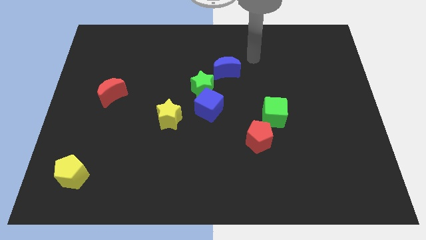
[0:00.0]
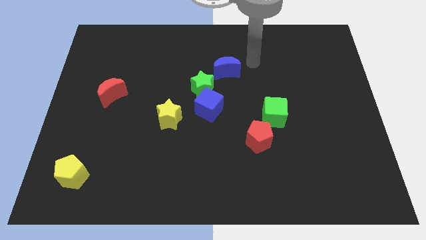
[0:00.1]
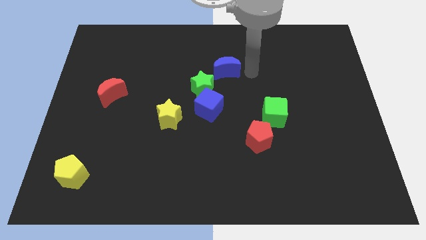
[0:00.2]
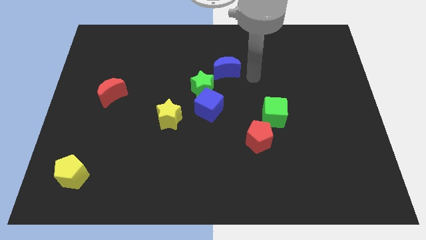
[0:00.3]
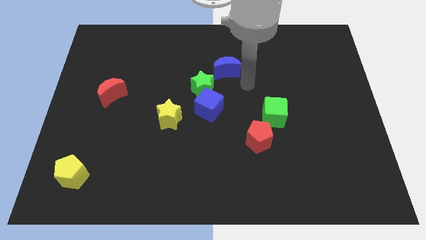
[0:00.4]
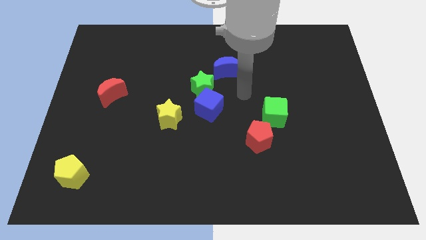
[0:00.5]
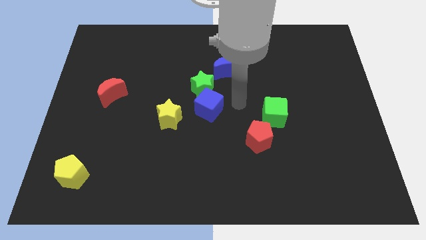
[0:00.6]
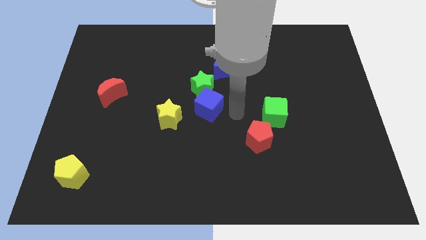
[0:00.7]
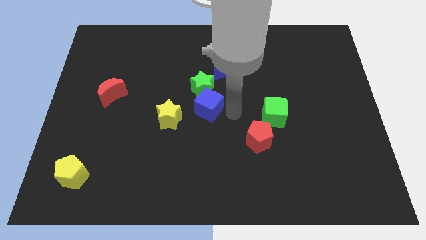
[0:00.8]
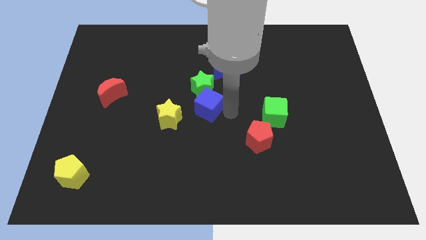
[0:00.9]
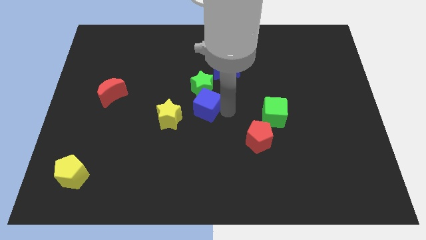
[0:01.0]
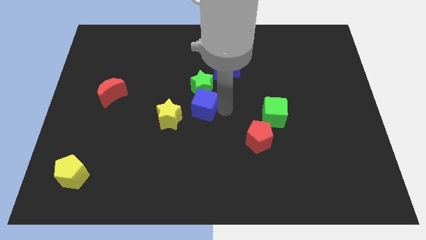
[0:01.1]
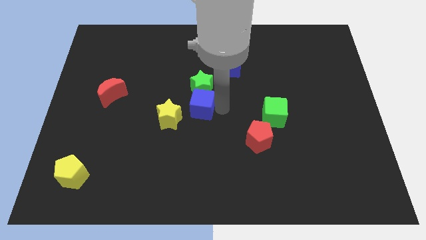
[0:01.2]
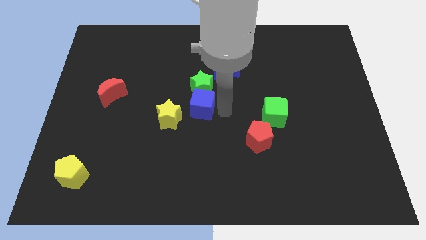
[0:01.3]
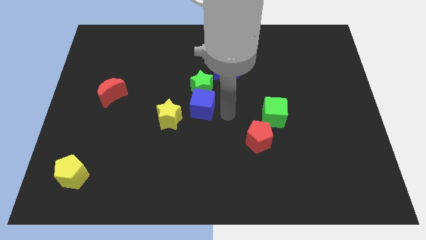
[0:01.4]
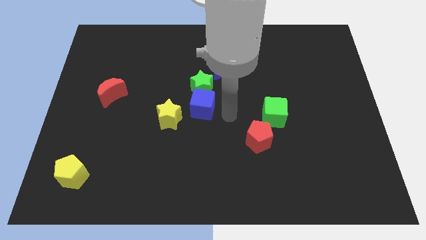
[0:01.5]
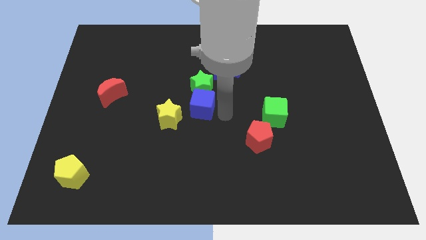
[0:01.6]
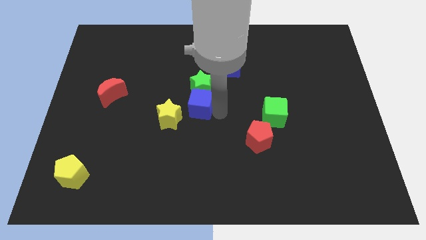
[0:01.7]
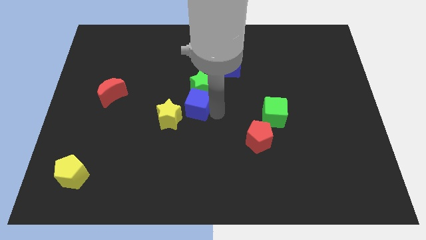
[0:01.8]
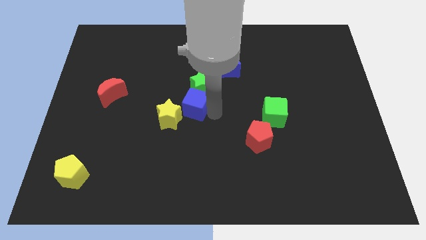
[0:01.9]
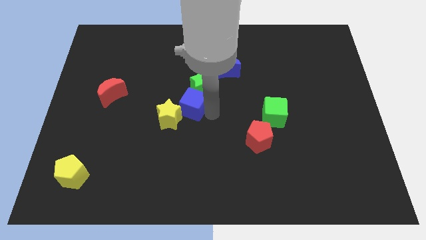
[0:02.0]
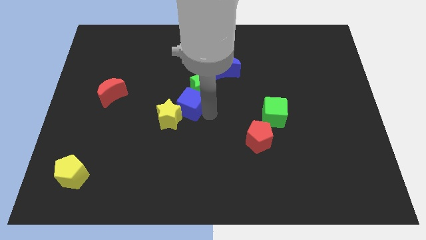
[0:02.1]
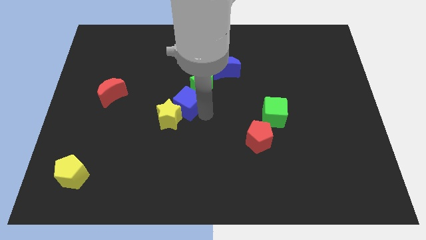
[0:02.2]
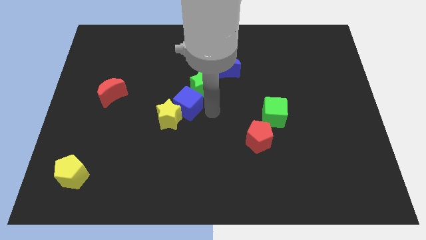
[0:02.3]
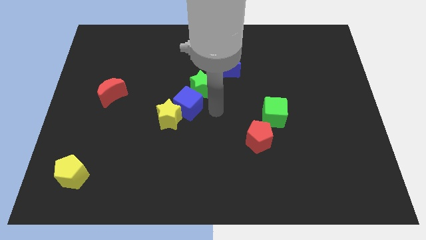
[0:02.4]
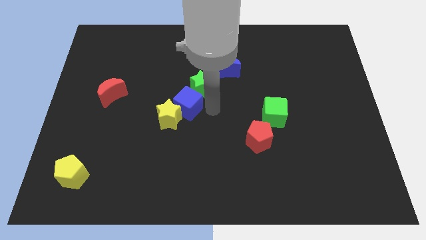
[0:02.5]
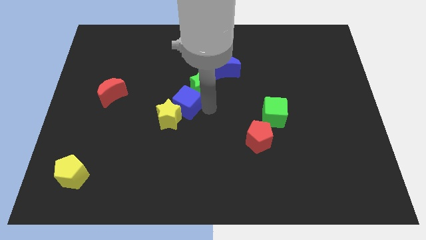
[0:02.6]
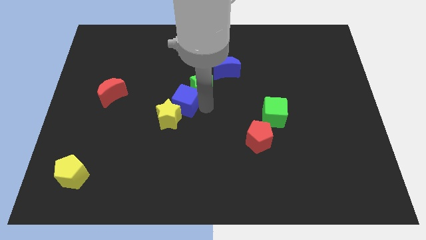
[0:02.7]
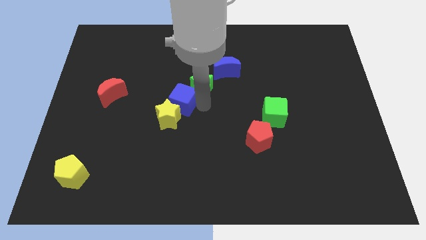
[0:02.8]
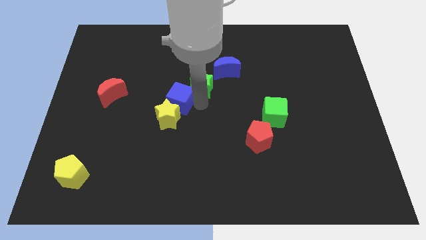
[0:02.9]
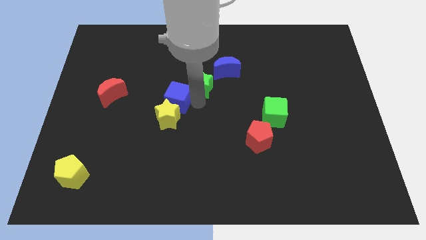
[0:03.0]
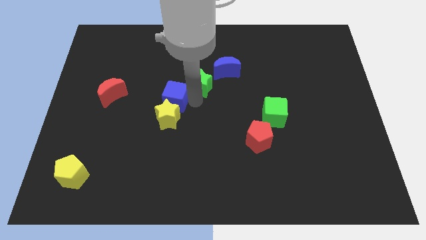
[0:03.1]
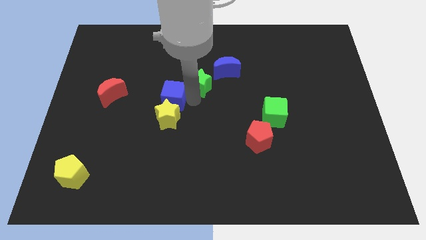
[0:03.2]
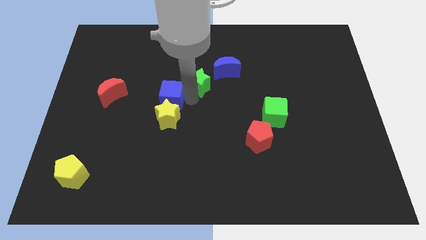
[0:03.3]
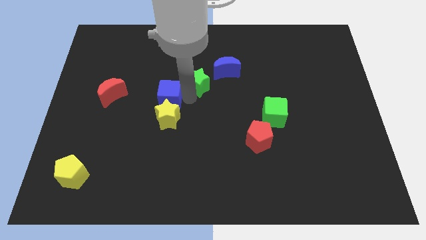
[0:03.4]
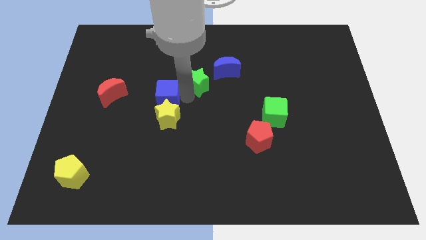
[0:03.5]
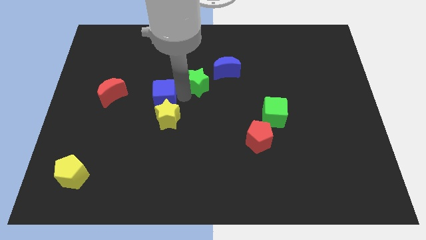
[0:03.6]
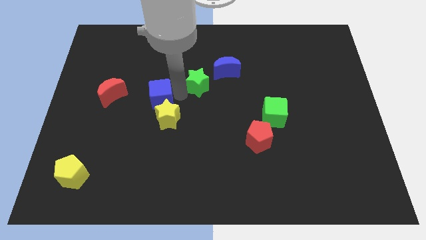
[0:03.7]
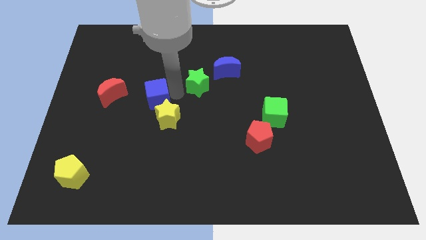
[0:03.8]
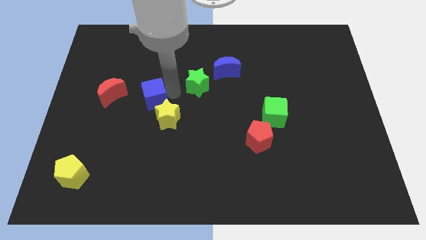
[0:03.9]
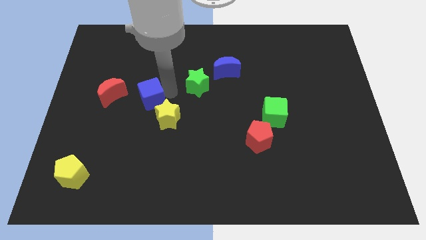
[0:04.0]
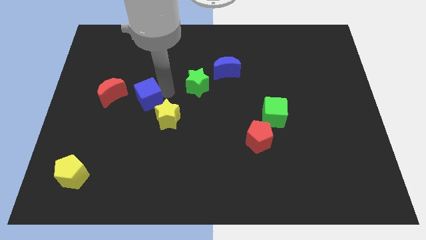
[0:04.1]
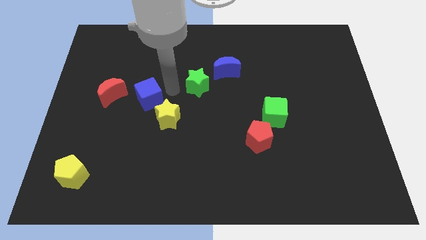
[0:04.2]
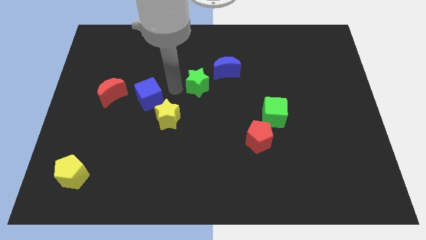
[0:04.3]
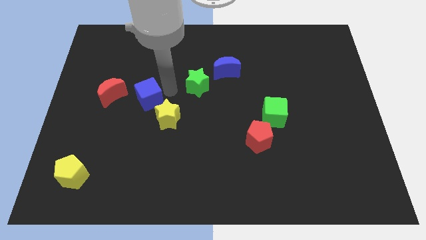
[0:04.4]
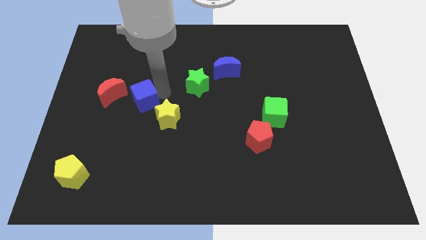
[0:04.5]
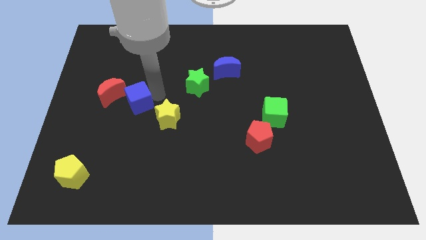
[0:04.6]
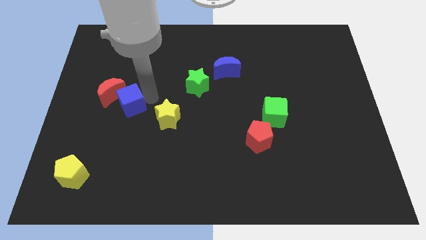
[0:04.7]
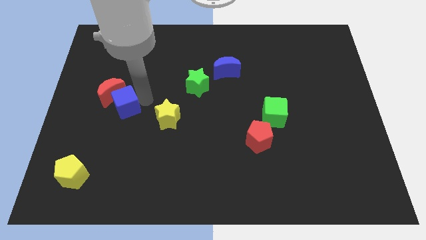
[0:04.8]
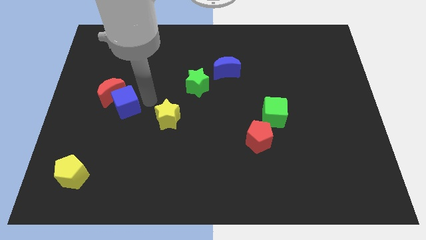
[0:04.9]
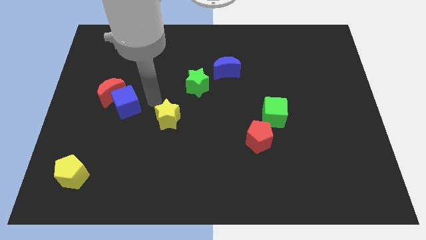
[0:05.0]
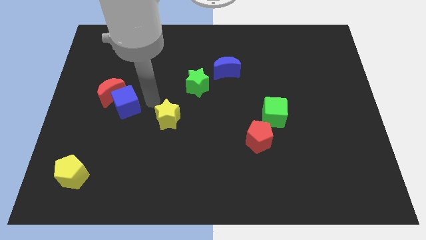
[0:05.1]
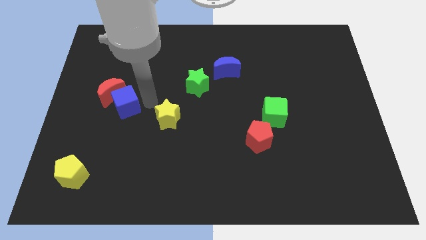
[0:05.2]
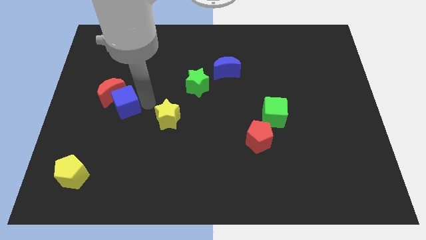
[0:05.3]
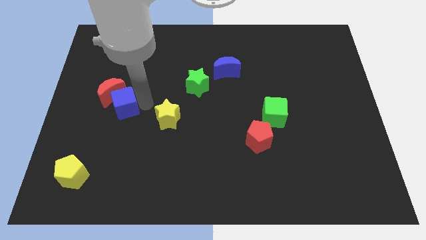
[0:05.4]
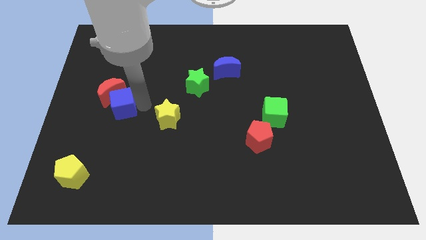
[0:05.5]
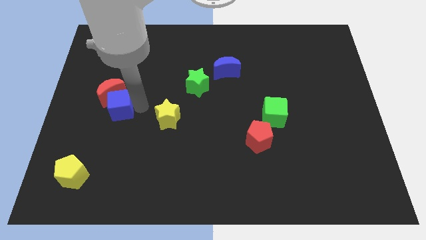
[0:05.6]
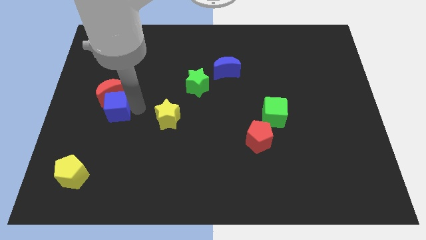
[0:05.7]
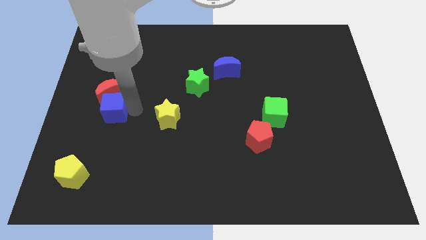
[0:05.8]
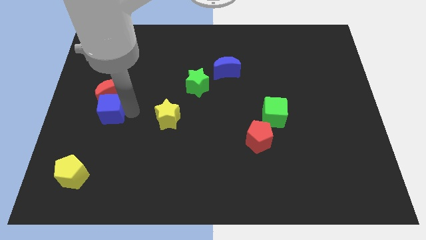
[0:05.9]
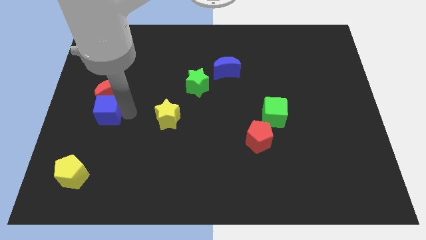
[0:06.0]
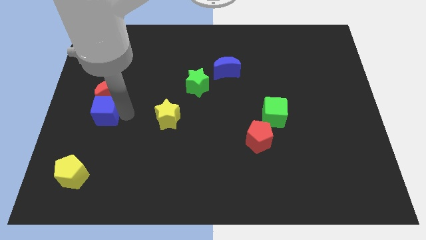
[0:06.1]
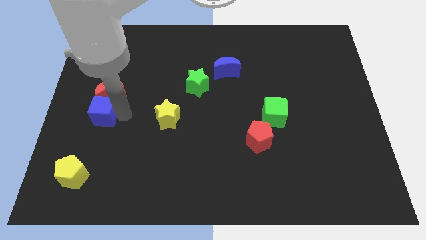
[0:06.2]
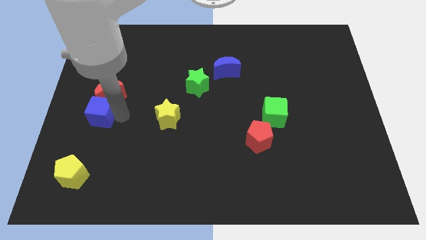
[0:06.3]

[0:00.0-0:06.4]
slide the blue cube to the left side of the board
